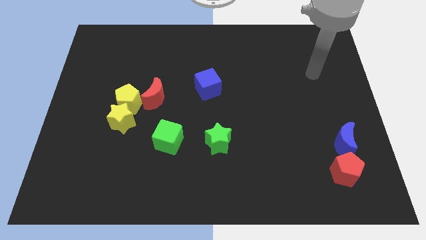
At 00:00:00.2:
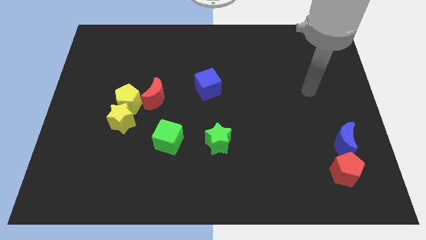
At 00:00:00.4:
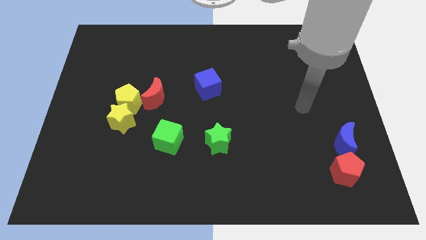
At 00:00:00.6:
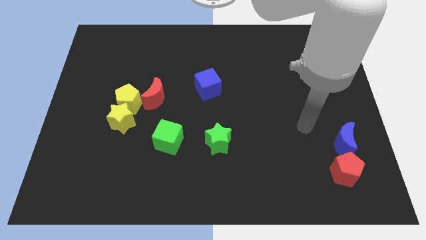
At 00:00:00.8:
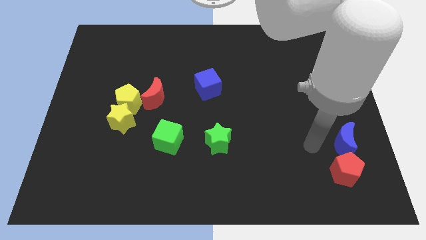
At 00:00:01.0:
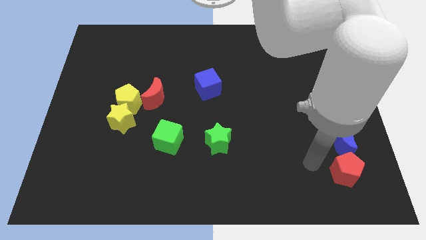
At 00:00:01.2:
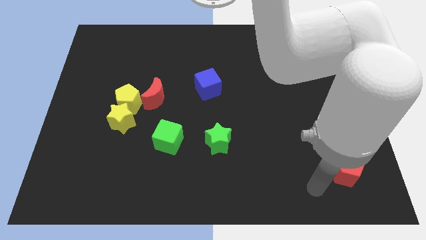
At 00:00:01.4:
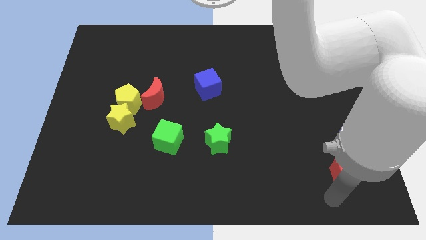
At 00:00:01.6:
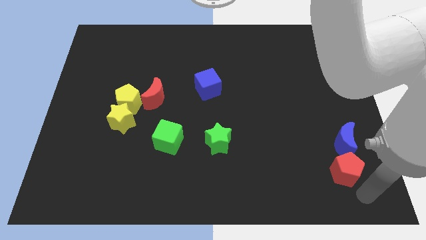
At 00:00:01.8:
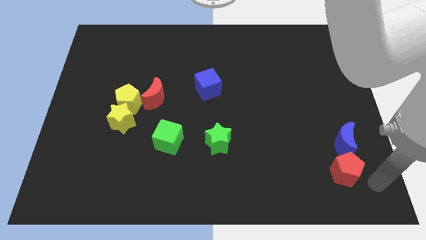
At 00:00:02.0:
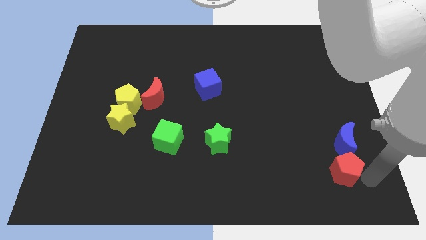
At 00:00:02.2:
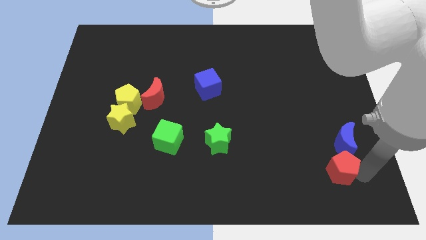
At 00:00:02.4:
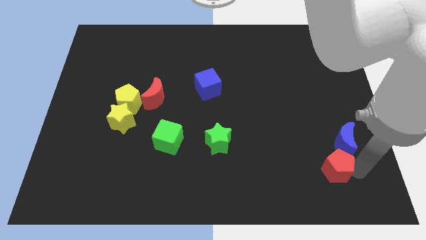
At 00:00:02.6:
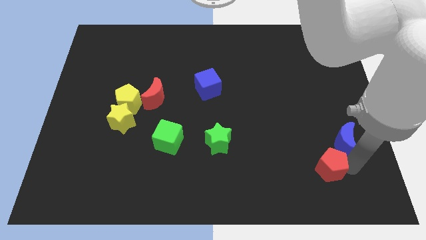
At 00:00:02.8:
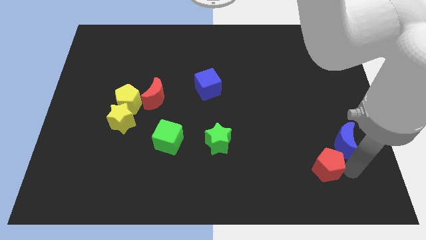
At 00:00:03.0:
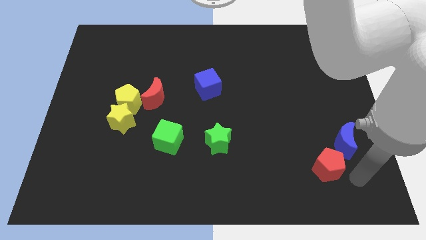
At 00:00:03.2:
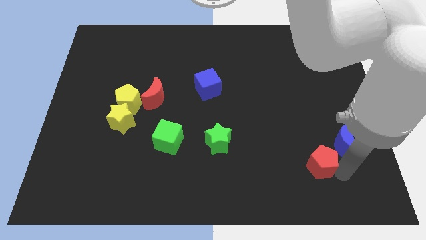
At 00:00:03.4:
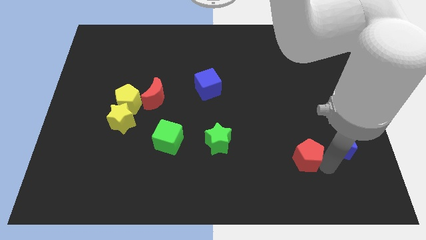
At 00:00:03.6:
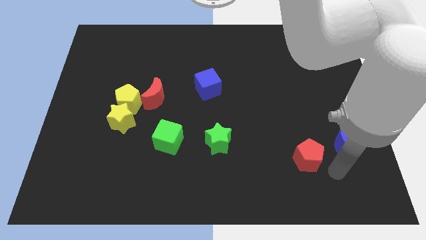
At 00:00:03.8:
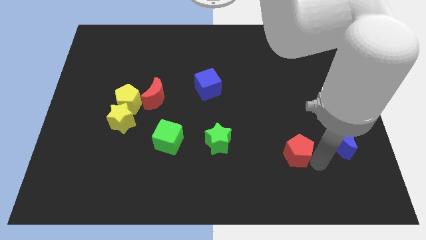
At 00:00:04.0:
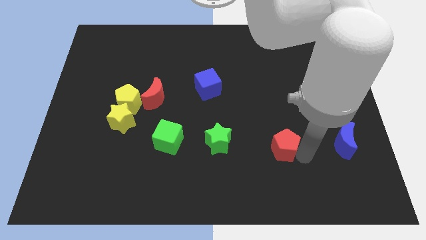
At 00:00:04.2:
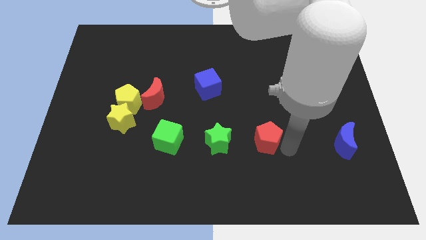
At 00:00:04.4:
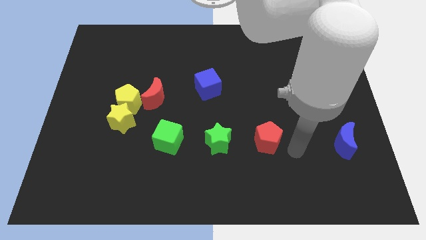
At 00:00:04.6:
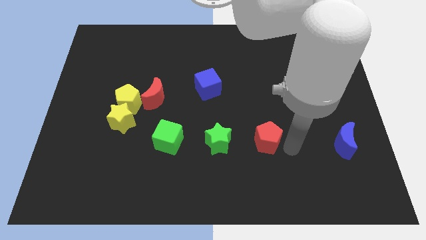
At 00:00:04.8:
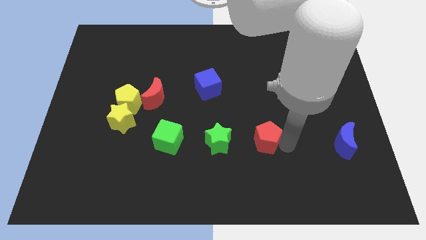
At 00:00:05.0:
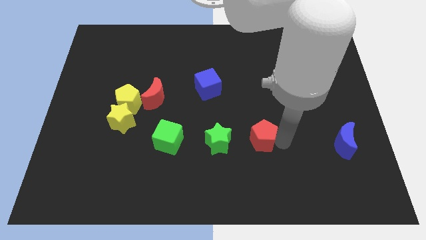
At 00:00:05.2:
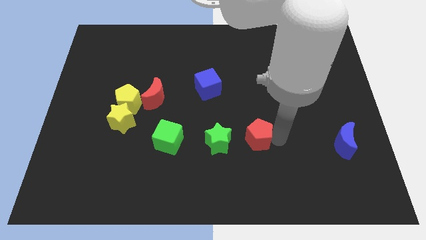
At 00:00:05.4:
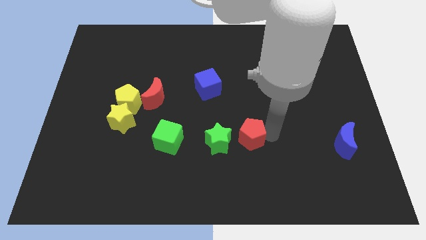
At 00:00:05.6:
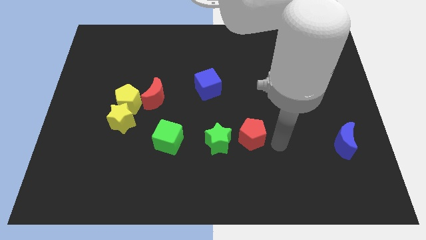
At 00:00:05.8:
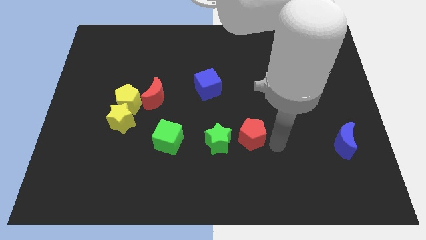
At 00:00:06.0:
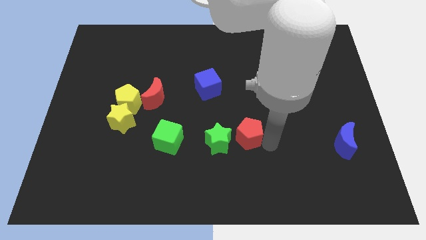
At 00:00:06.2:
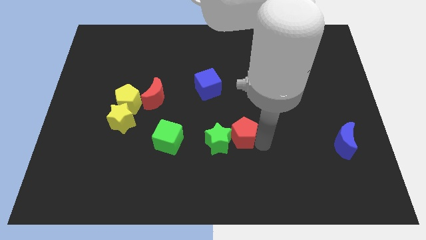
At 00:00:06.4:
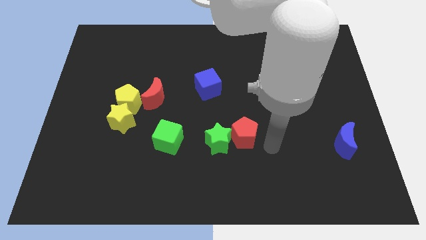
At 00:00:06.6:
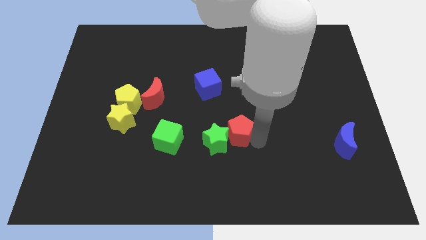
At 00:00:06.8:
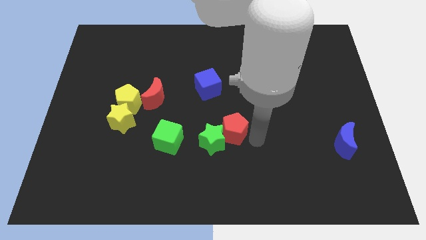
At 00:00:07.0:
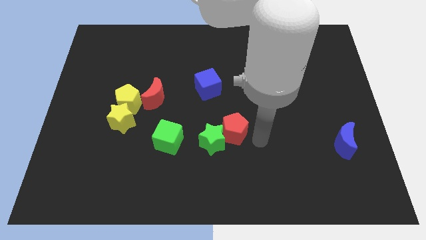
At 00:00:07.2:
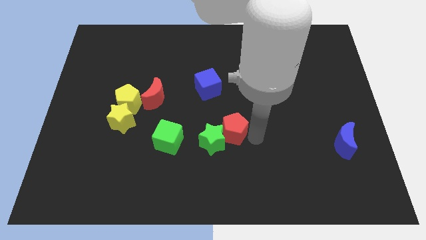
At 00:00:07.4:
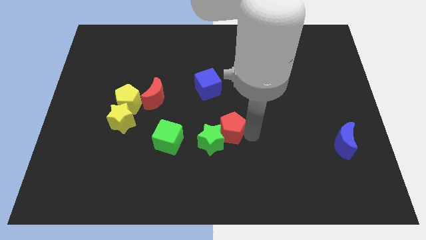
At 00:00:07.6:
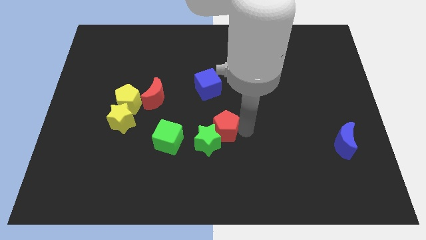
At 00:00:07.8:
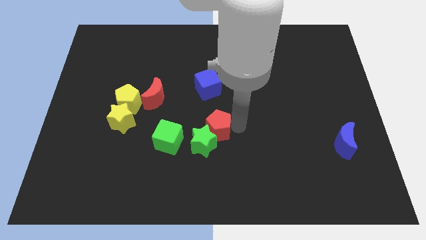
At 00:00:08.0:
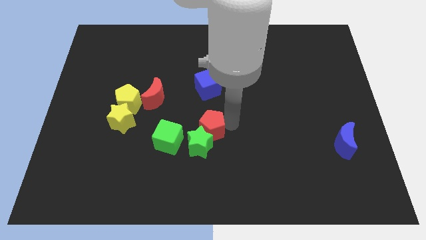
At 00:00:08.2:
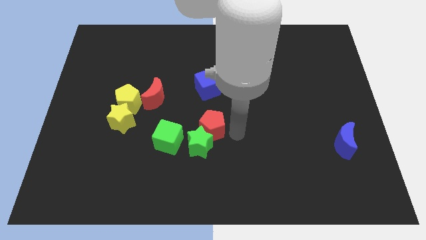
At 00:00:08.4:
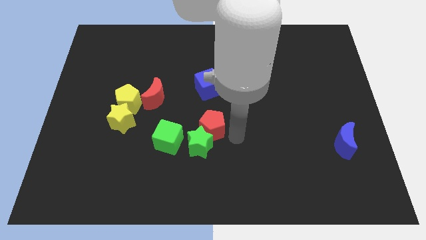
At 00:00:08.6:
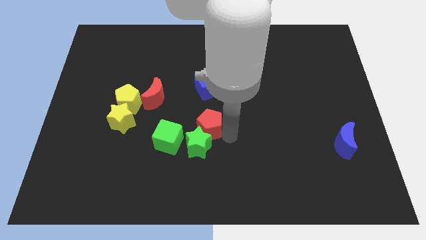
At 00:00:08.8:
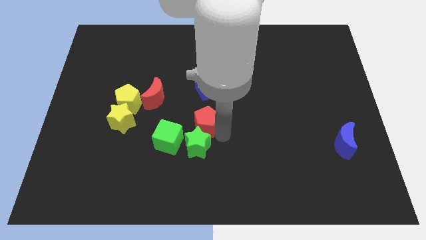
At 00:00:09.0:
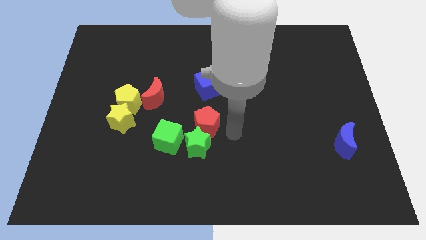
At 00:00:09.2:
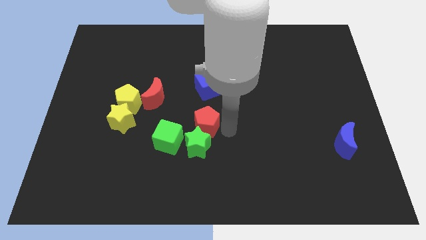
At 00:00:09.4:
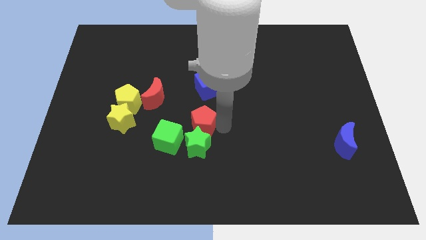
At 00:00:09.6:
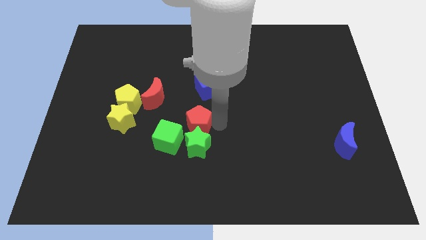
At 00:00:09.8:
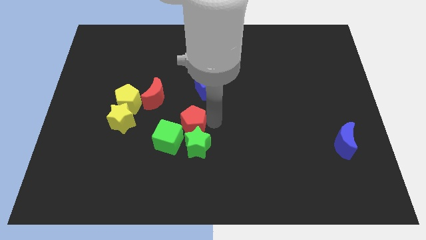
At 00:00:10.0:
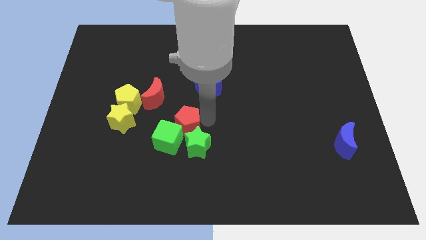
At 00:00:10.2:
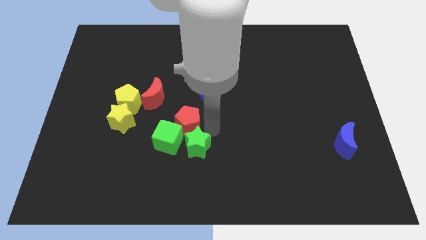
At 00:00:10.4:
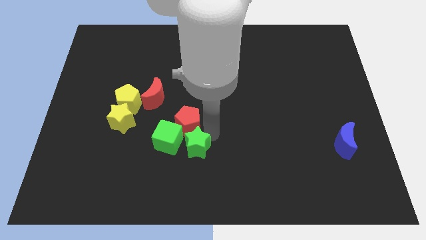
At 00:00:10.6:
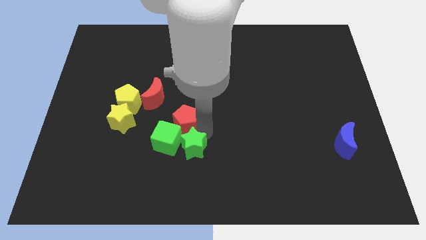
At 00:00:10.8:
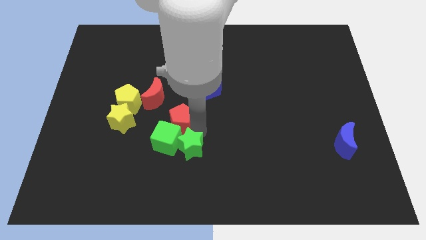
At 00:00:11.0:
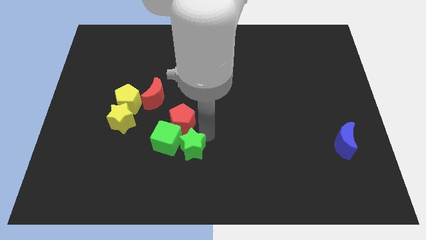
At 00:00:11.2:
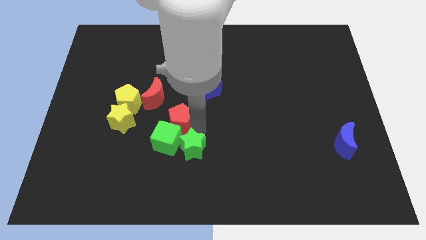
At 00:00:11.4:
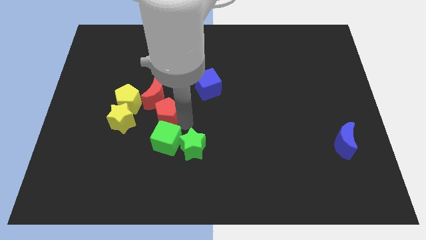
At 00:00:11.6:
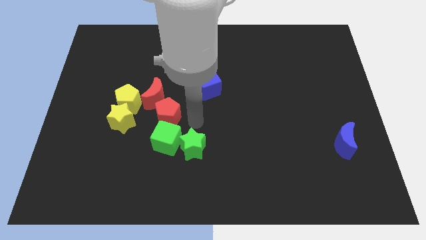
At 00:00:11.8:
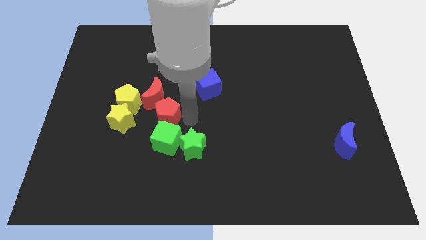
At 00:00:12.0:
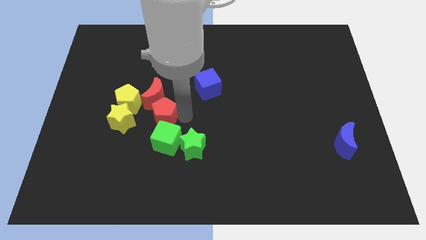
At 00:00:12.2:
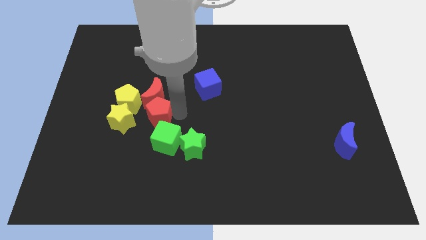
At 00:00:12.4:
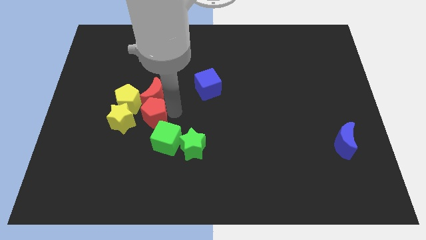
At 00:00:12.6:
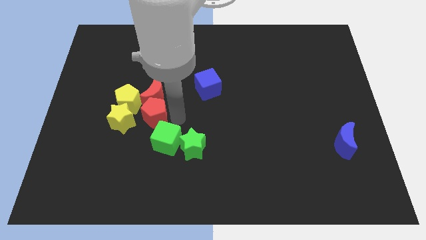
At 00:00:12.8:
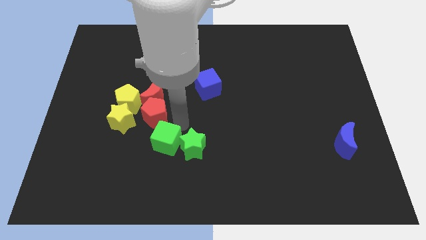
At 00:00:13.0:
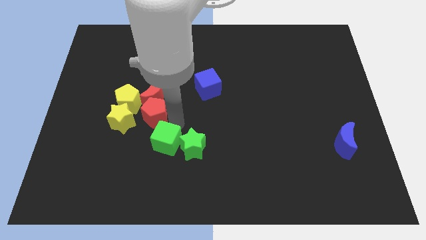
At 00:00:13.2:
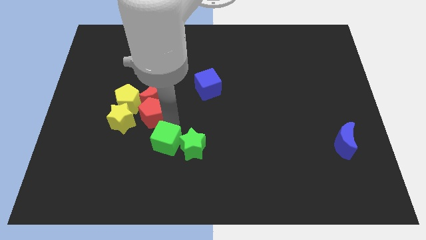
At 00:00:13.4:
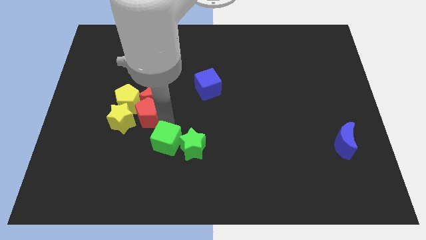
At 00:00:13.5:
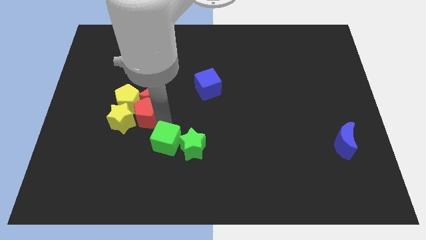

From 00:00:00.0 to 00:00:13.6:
put the red pentagon to the yellow pentagon

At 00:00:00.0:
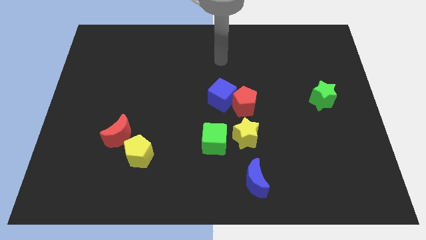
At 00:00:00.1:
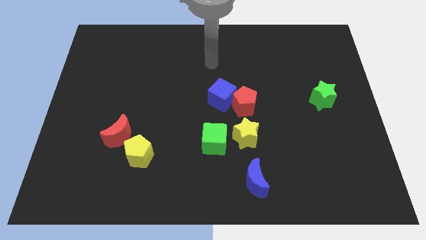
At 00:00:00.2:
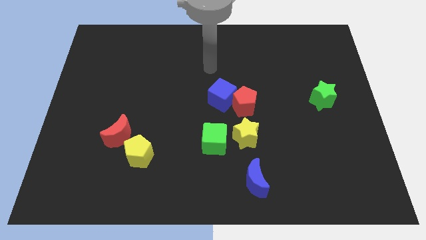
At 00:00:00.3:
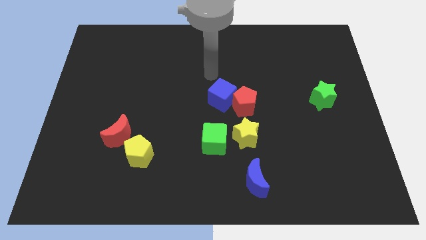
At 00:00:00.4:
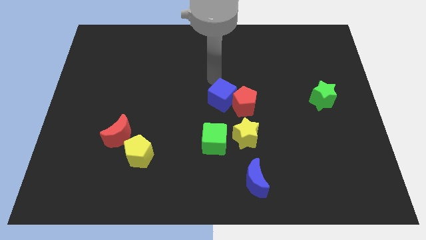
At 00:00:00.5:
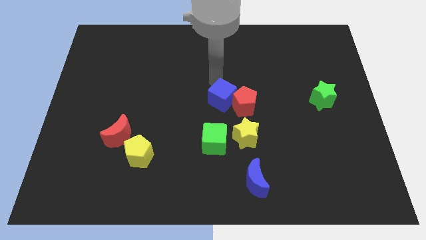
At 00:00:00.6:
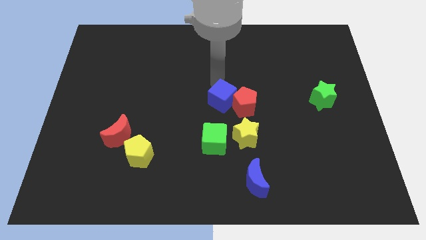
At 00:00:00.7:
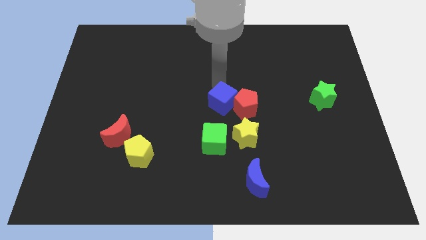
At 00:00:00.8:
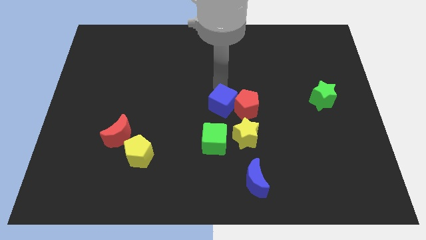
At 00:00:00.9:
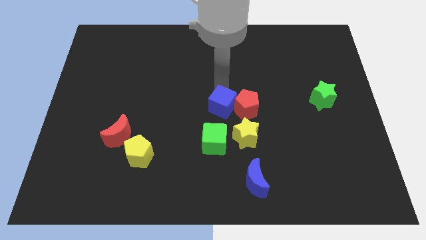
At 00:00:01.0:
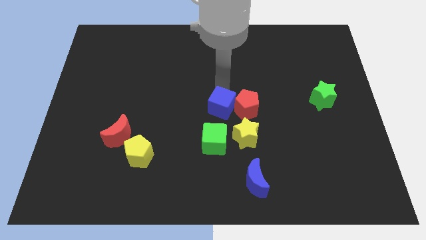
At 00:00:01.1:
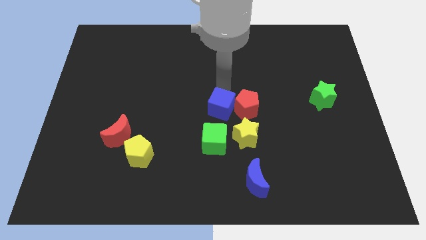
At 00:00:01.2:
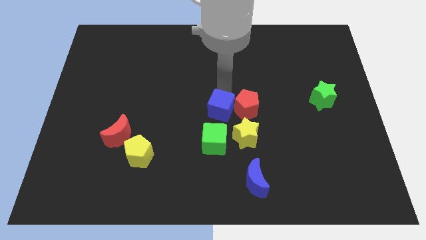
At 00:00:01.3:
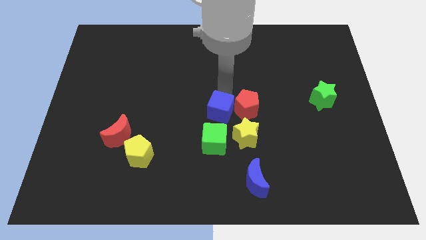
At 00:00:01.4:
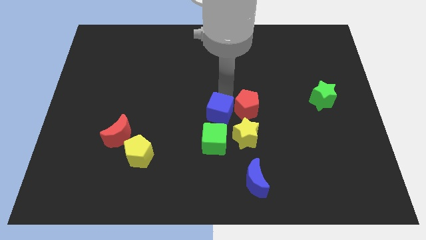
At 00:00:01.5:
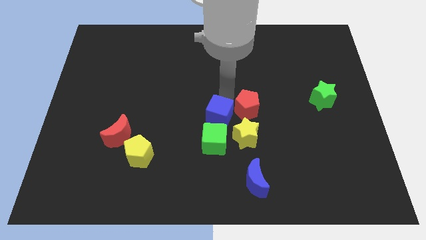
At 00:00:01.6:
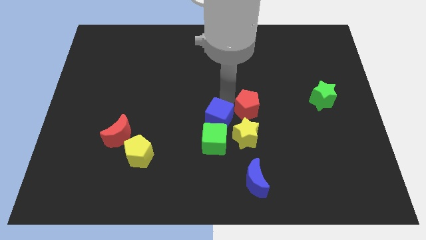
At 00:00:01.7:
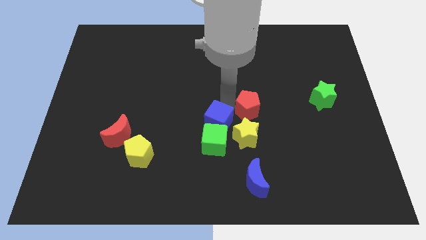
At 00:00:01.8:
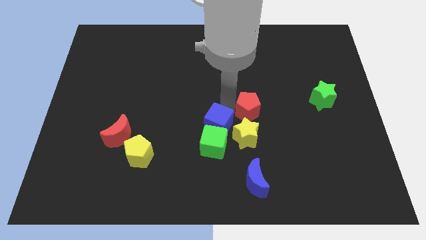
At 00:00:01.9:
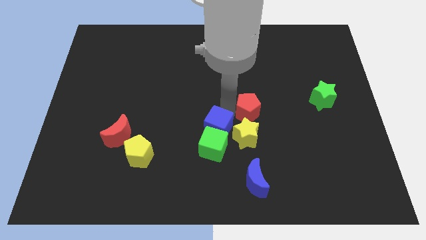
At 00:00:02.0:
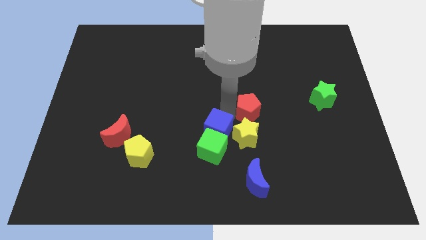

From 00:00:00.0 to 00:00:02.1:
put the blue cube next to the yellow star
